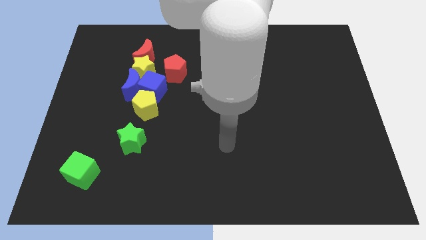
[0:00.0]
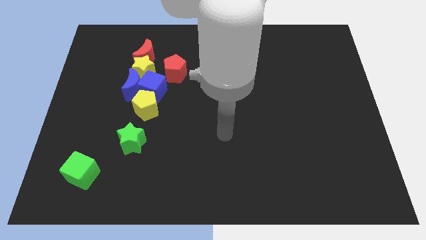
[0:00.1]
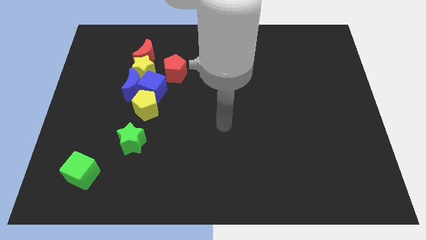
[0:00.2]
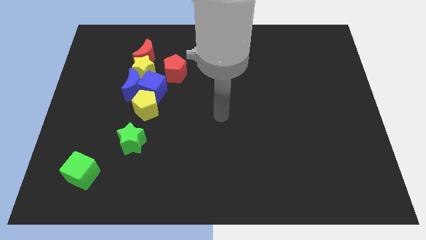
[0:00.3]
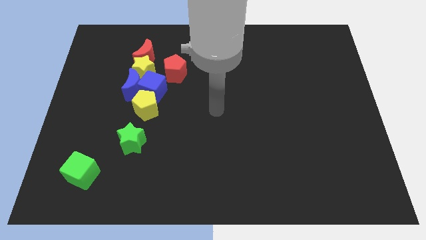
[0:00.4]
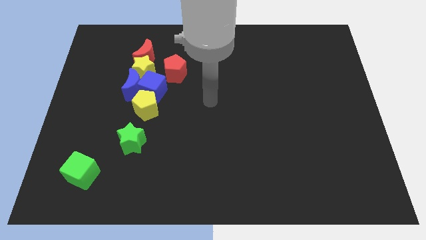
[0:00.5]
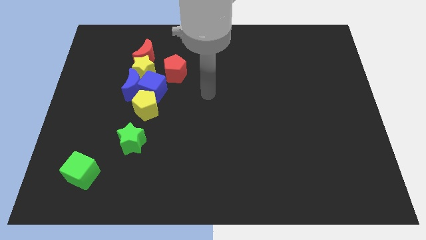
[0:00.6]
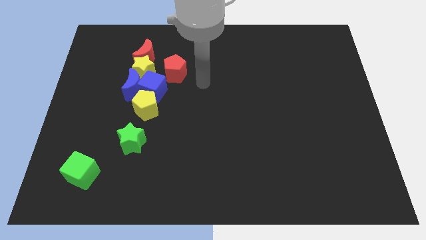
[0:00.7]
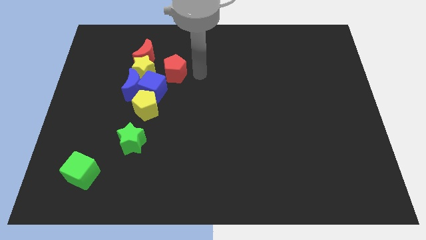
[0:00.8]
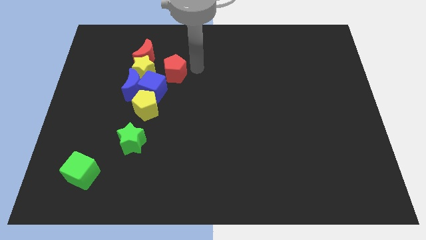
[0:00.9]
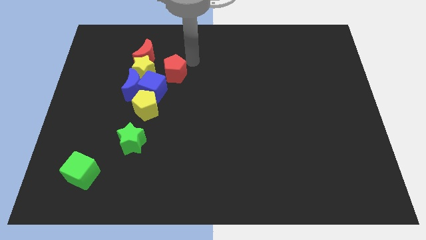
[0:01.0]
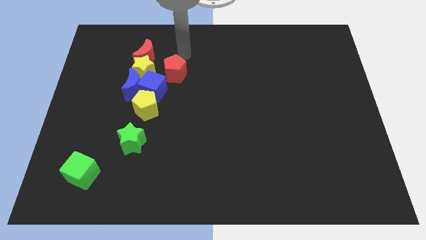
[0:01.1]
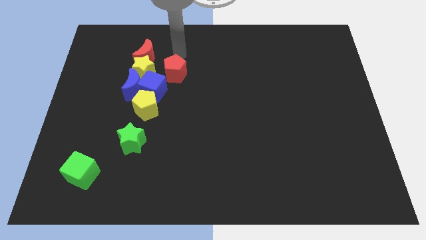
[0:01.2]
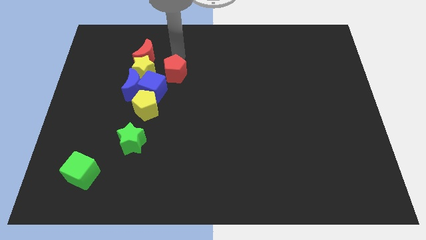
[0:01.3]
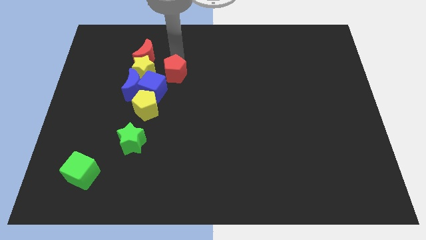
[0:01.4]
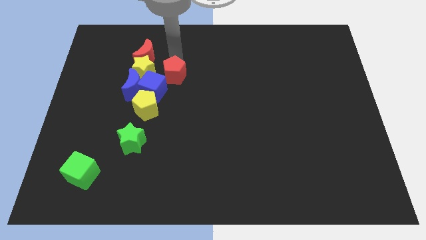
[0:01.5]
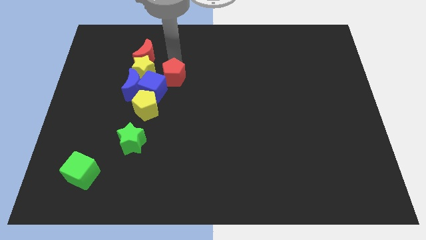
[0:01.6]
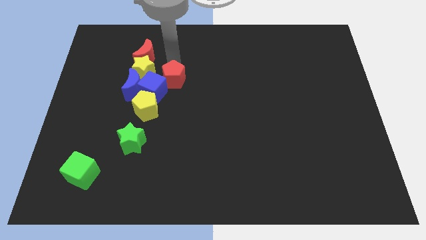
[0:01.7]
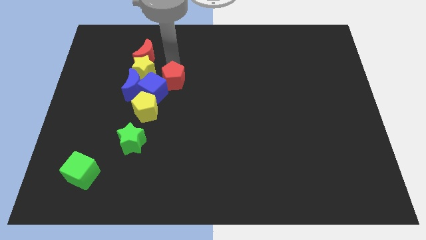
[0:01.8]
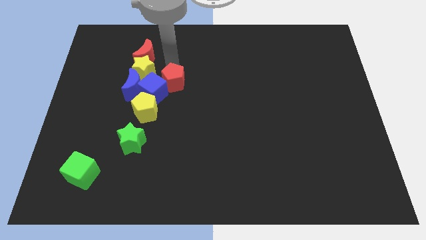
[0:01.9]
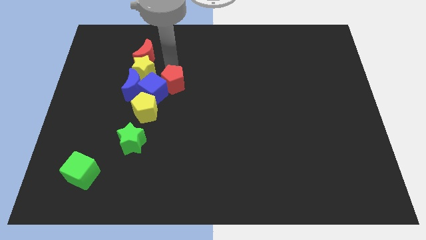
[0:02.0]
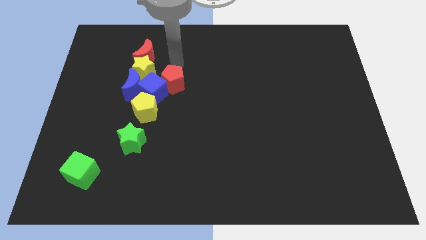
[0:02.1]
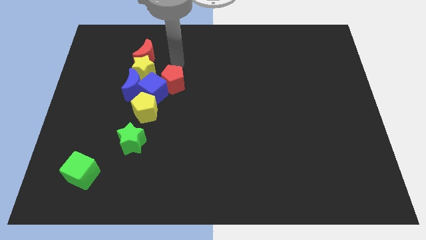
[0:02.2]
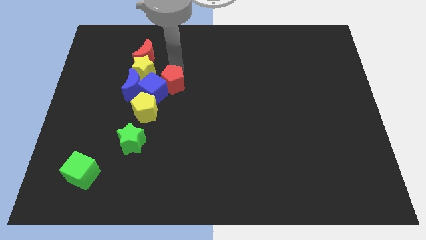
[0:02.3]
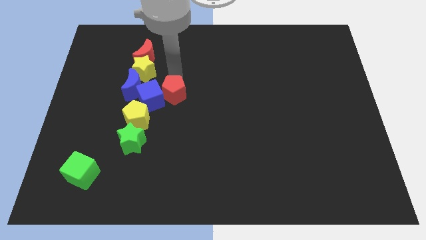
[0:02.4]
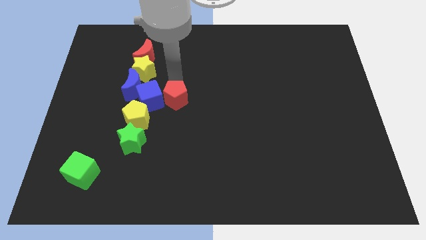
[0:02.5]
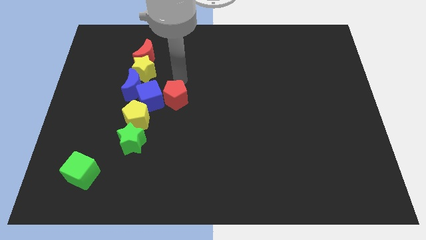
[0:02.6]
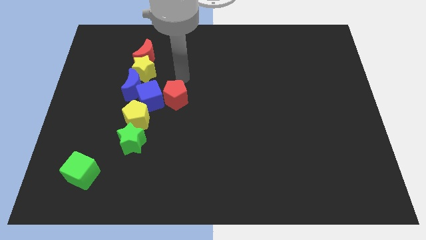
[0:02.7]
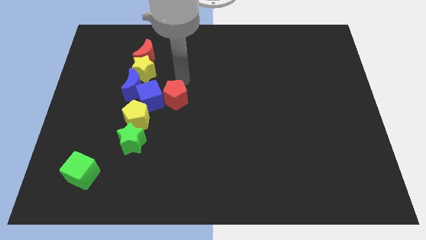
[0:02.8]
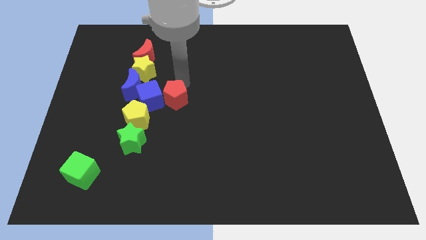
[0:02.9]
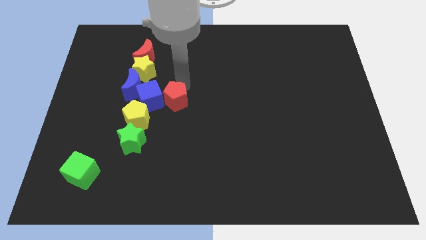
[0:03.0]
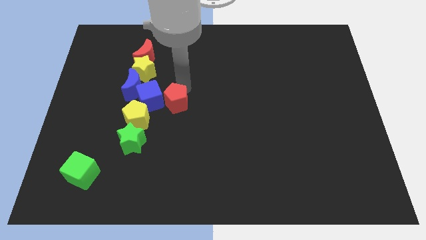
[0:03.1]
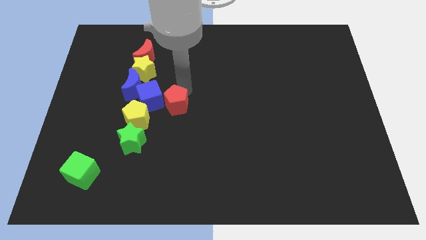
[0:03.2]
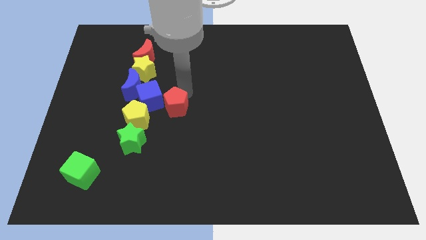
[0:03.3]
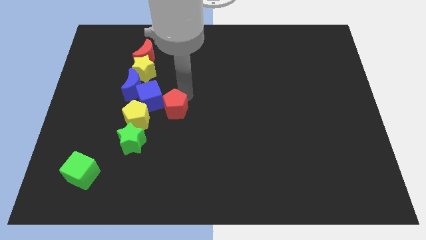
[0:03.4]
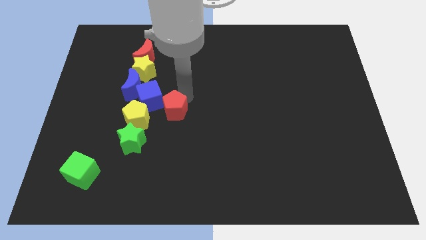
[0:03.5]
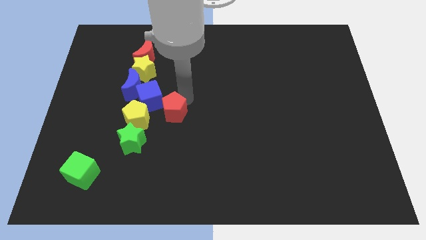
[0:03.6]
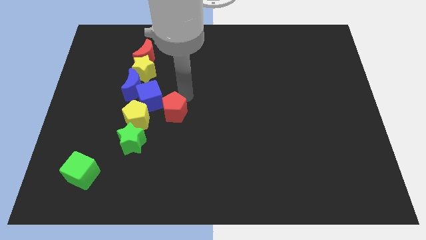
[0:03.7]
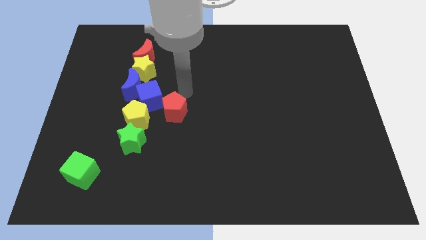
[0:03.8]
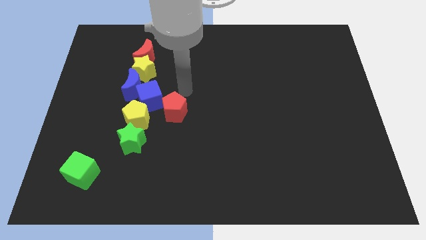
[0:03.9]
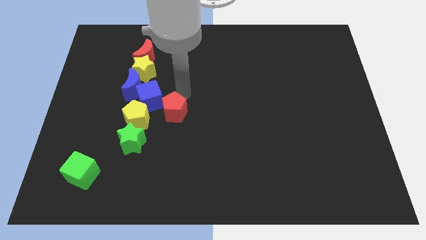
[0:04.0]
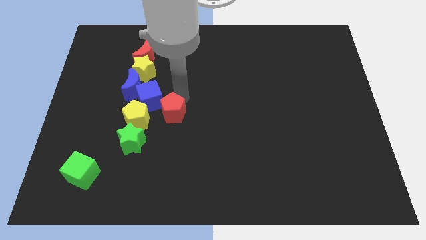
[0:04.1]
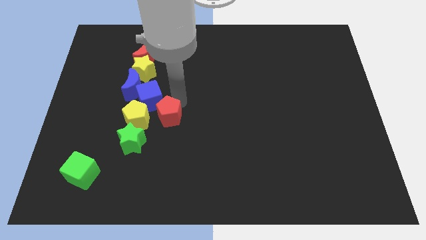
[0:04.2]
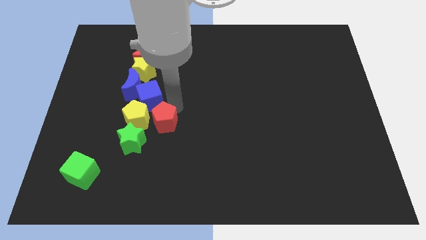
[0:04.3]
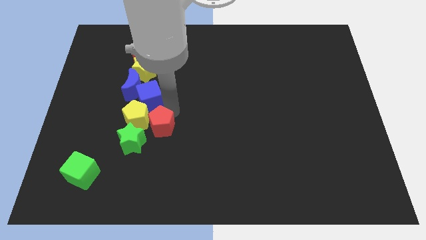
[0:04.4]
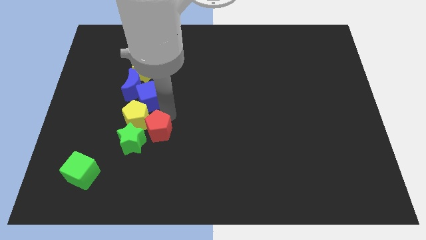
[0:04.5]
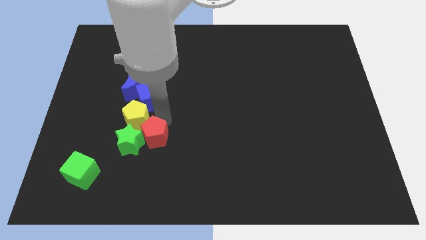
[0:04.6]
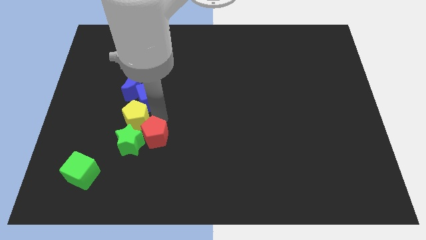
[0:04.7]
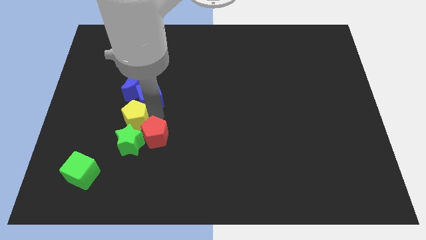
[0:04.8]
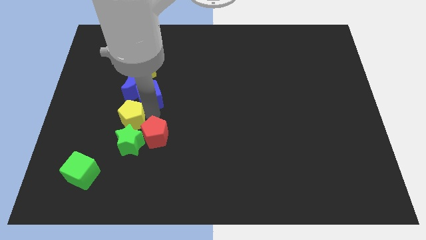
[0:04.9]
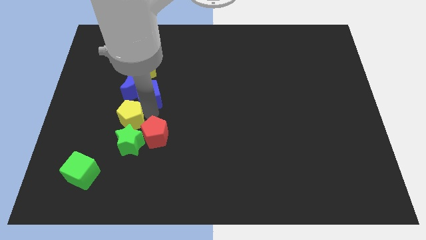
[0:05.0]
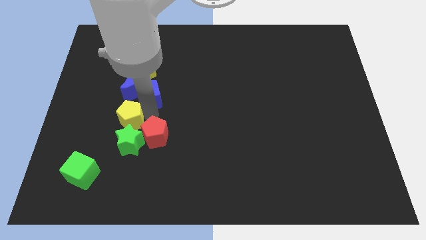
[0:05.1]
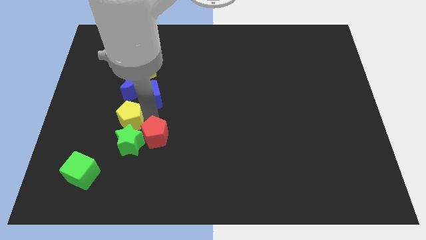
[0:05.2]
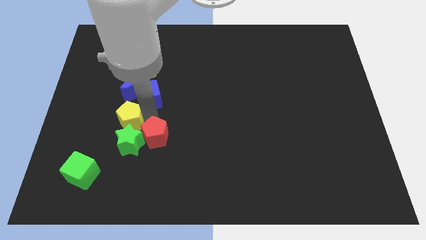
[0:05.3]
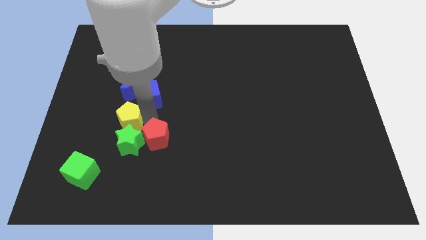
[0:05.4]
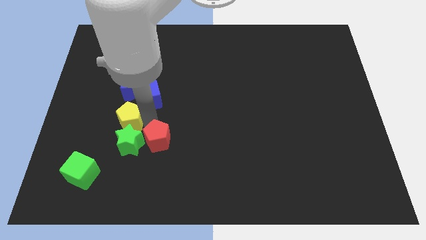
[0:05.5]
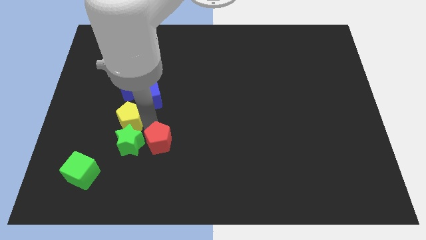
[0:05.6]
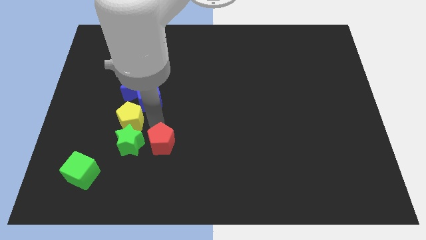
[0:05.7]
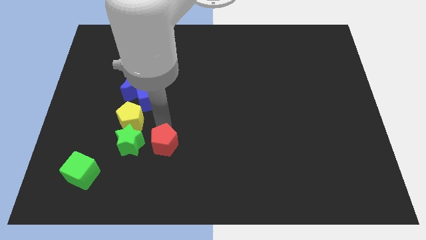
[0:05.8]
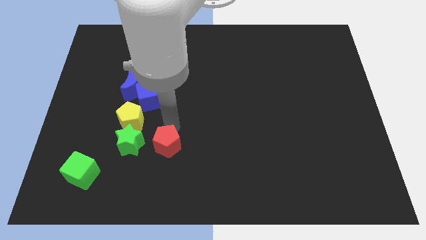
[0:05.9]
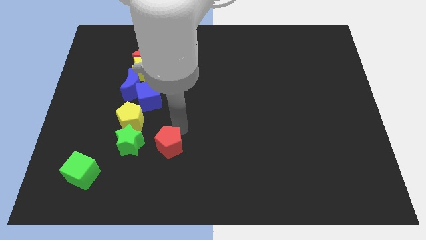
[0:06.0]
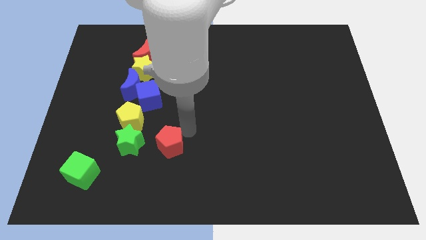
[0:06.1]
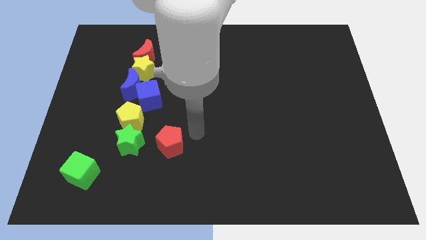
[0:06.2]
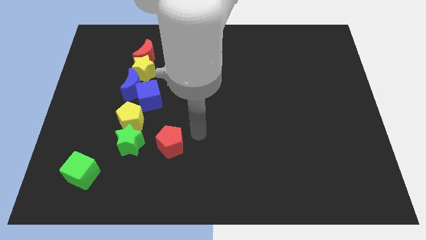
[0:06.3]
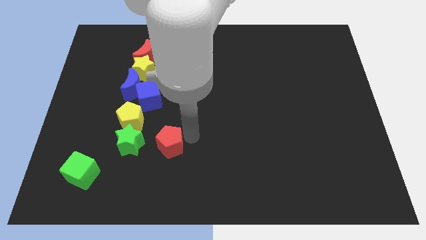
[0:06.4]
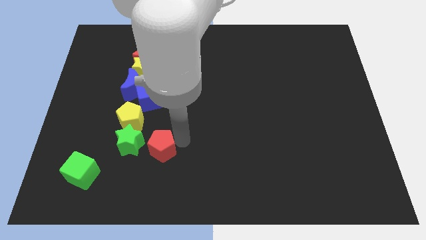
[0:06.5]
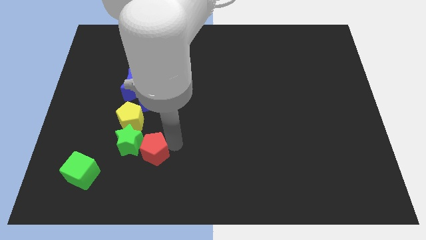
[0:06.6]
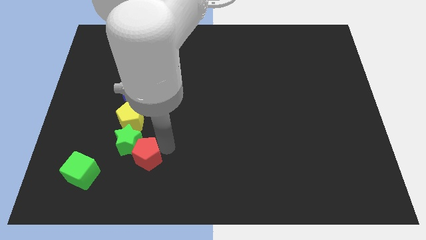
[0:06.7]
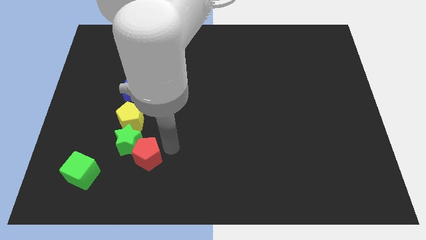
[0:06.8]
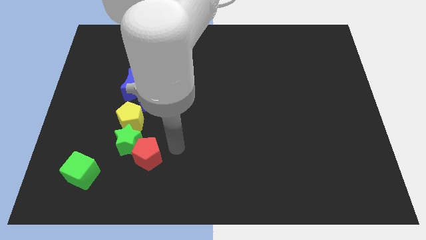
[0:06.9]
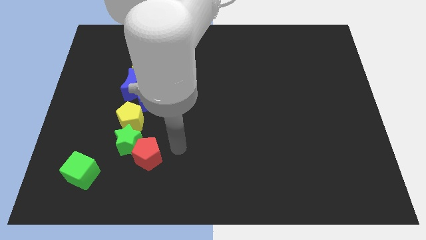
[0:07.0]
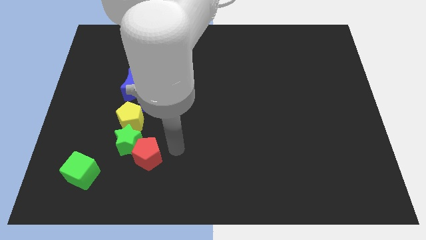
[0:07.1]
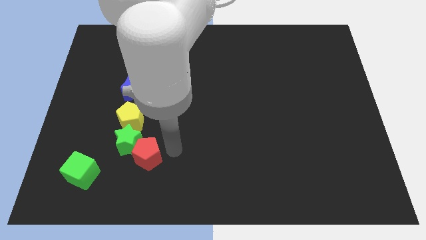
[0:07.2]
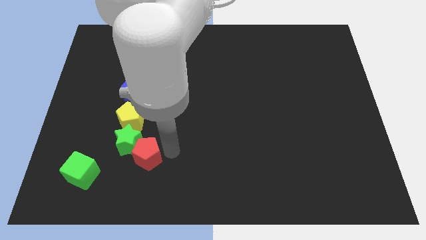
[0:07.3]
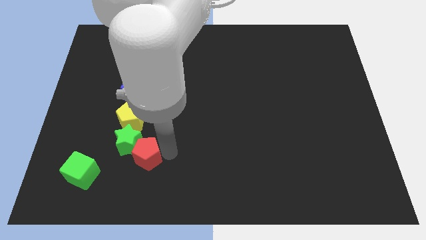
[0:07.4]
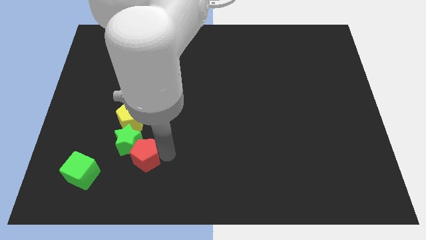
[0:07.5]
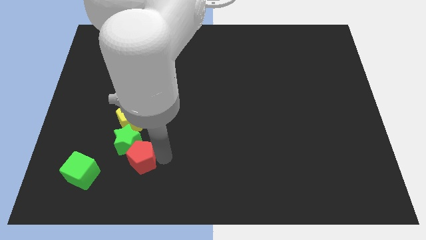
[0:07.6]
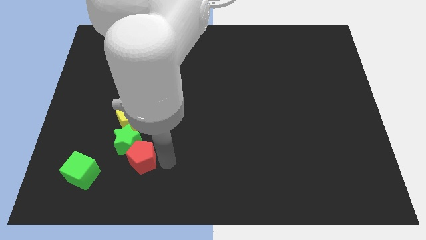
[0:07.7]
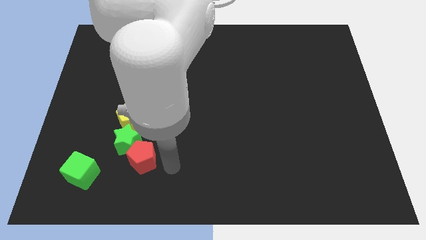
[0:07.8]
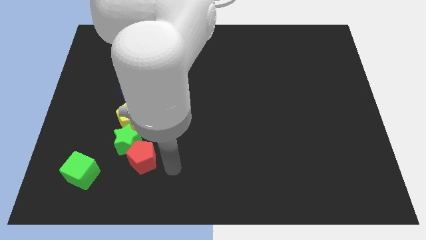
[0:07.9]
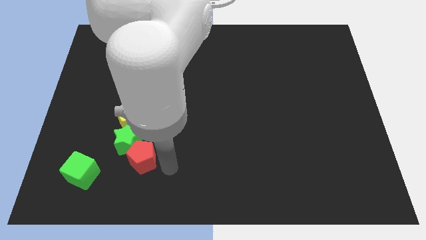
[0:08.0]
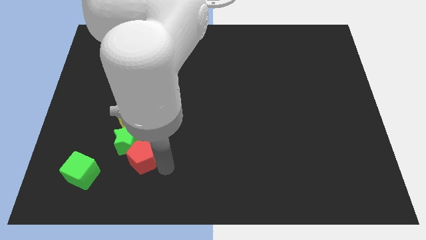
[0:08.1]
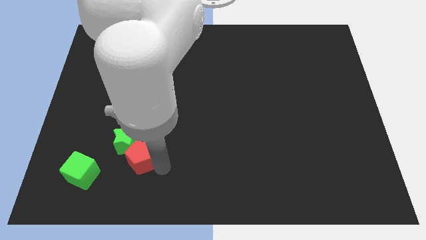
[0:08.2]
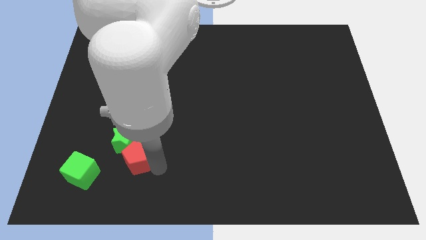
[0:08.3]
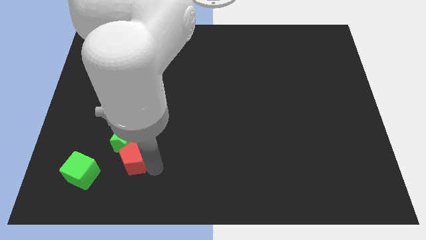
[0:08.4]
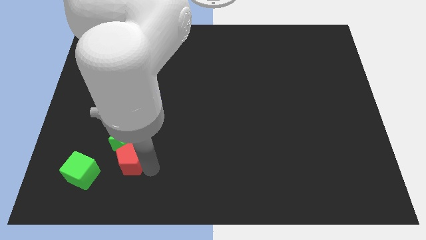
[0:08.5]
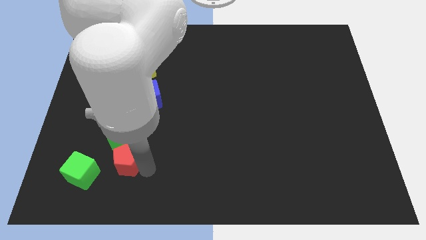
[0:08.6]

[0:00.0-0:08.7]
slide the red pentagon diagonally up and to the right of the green cube
